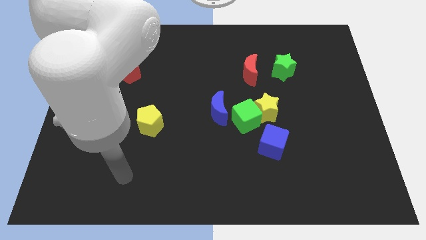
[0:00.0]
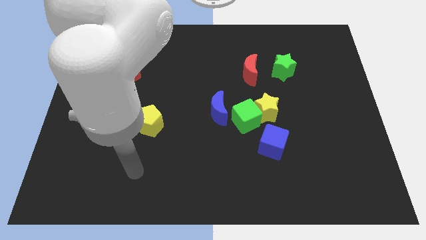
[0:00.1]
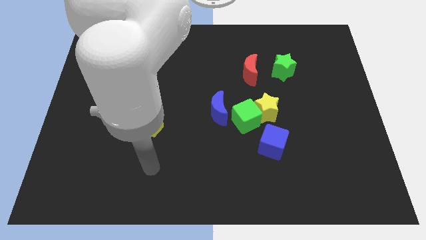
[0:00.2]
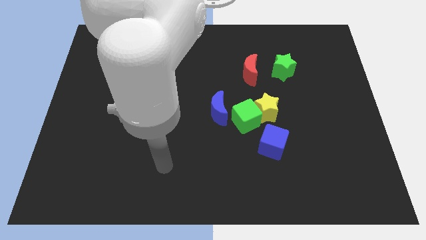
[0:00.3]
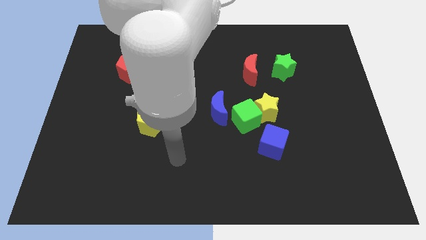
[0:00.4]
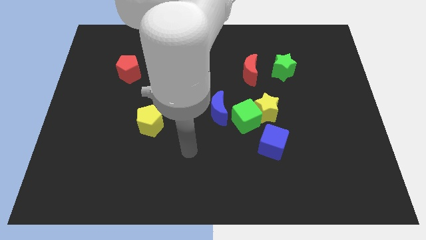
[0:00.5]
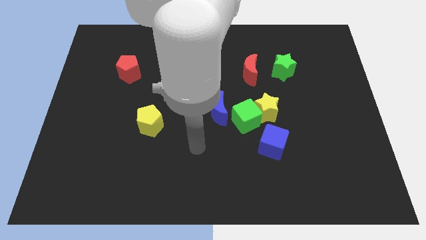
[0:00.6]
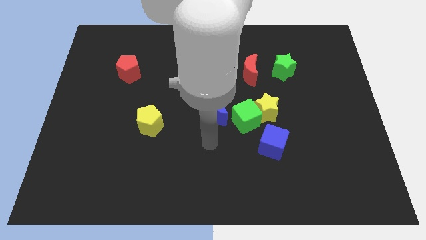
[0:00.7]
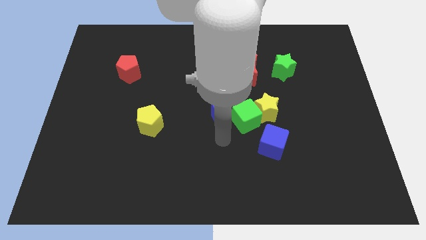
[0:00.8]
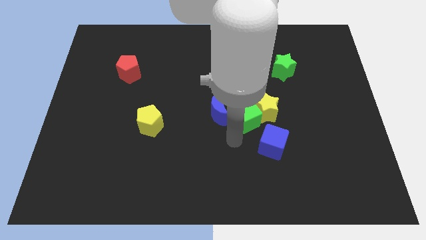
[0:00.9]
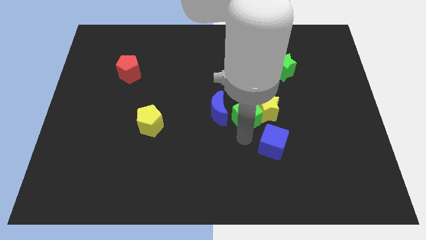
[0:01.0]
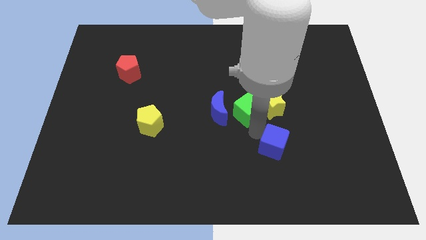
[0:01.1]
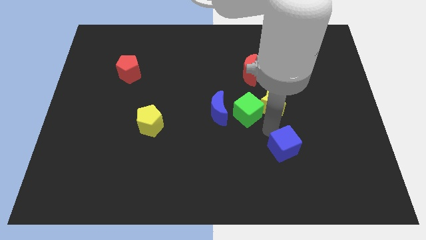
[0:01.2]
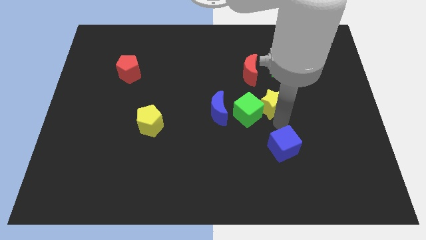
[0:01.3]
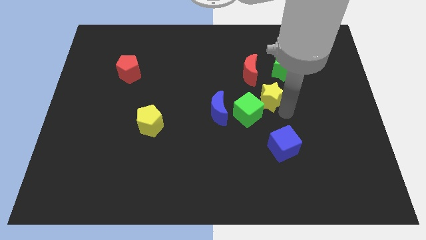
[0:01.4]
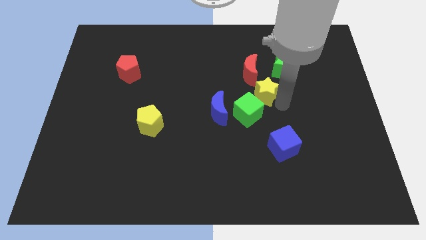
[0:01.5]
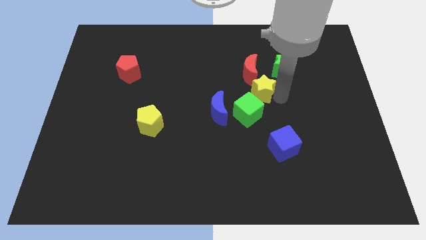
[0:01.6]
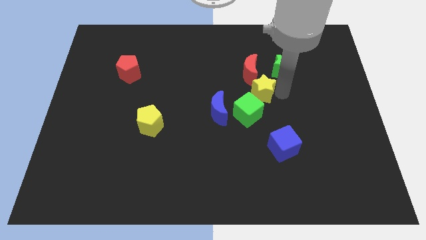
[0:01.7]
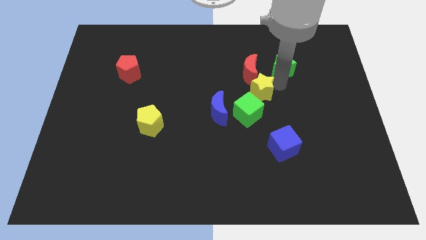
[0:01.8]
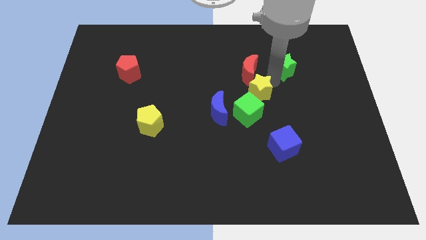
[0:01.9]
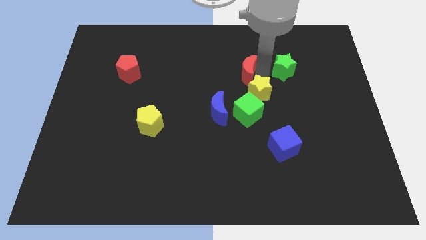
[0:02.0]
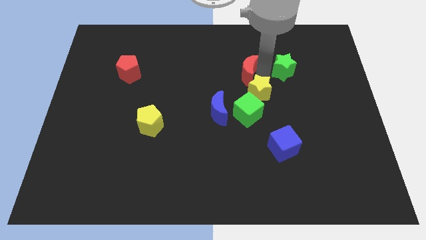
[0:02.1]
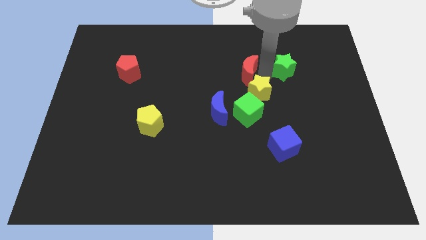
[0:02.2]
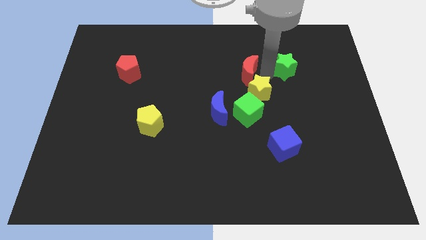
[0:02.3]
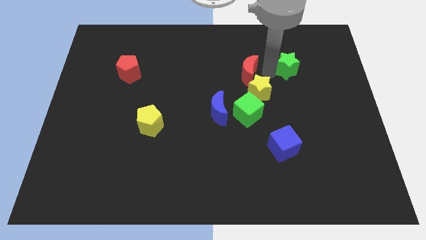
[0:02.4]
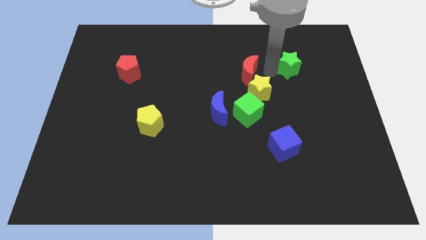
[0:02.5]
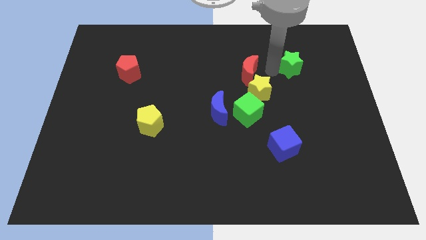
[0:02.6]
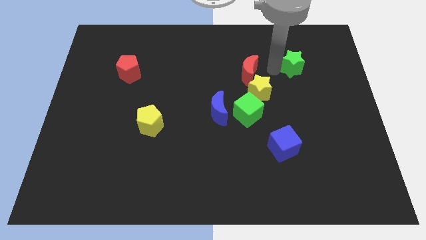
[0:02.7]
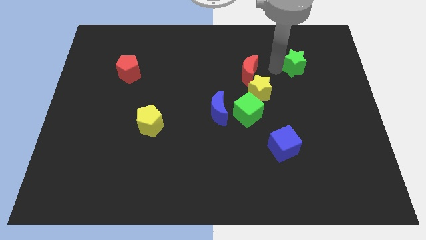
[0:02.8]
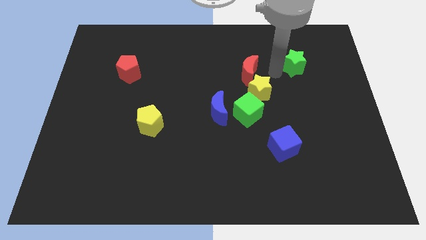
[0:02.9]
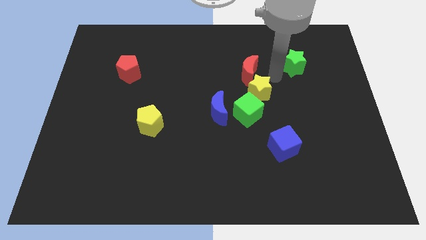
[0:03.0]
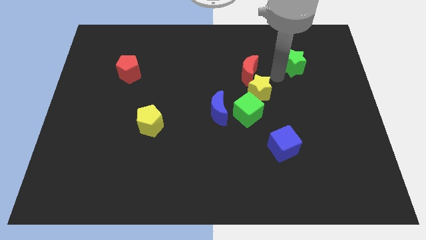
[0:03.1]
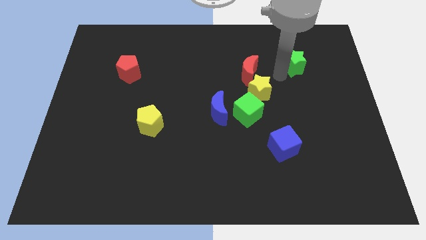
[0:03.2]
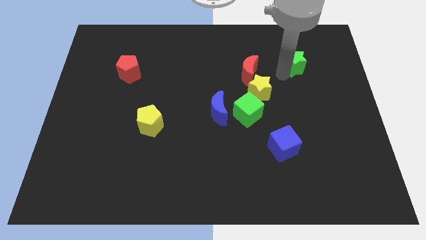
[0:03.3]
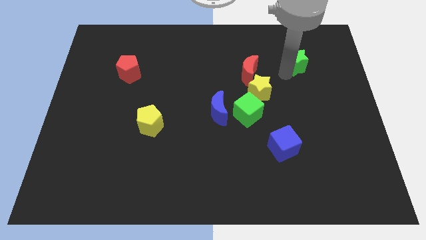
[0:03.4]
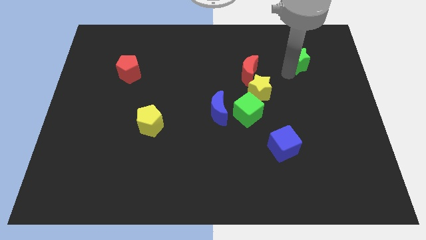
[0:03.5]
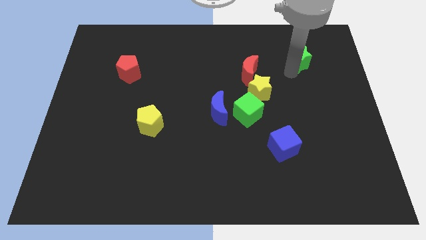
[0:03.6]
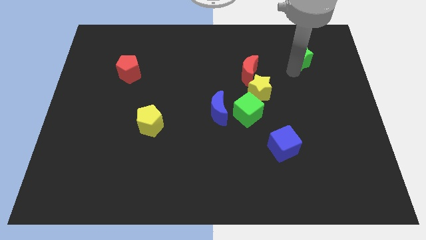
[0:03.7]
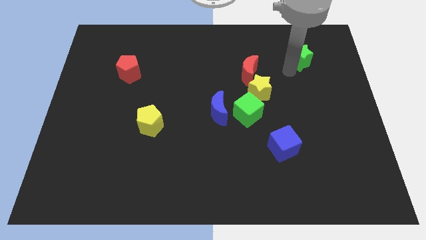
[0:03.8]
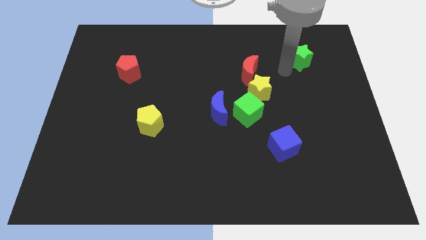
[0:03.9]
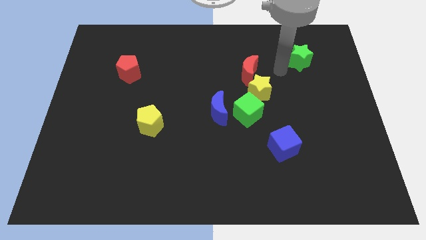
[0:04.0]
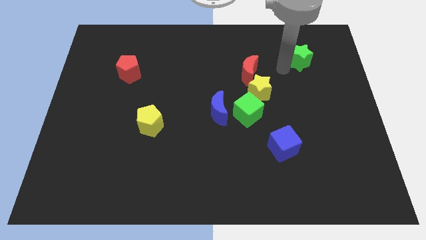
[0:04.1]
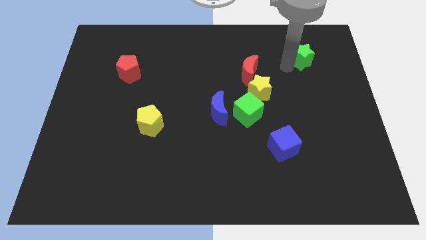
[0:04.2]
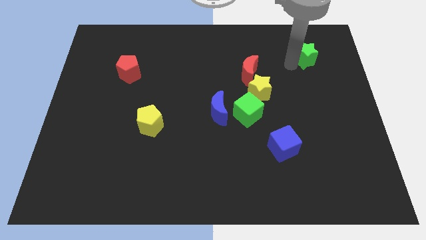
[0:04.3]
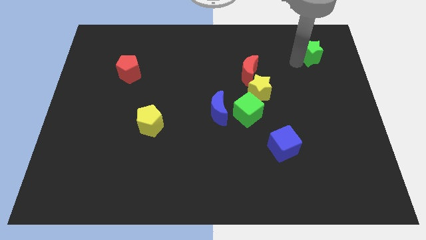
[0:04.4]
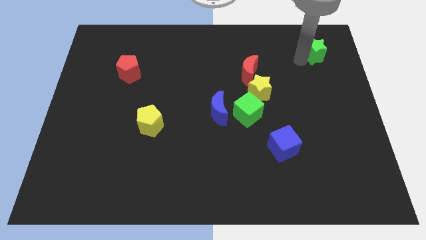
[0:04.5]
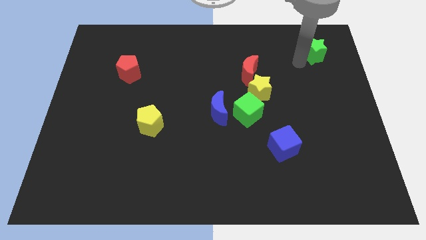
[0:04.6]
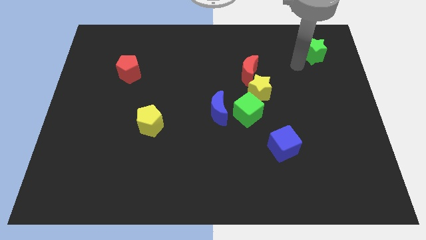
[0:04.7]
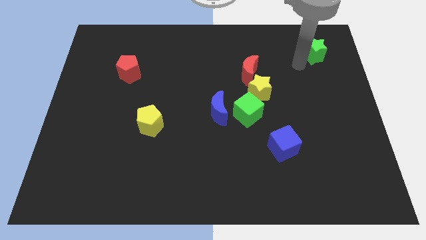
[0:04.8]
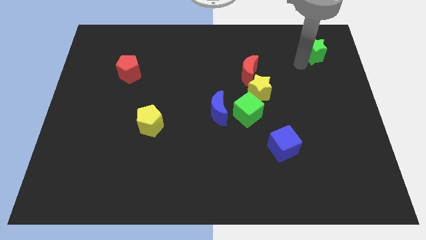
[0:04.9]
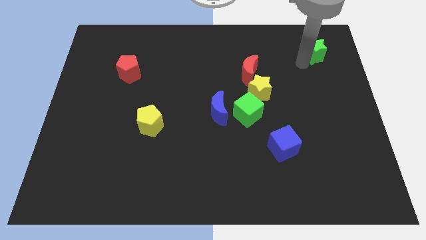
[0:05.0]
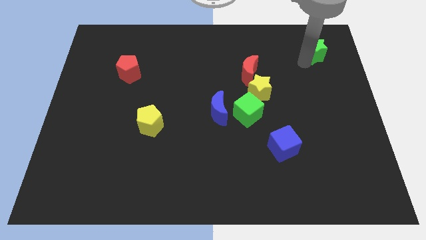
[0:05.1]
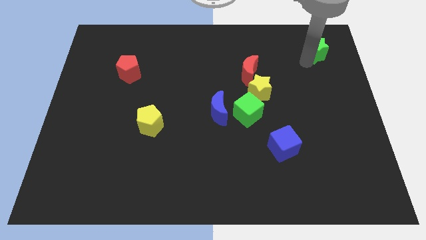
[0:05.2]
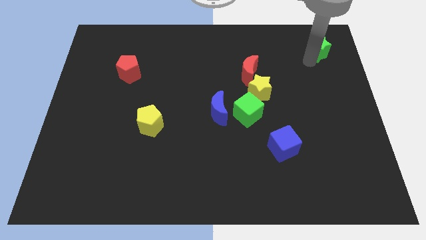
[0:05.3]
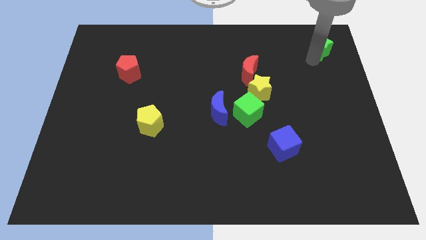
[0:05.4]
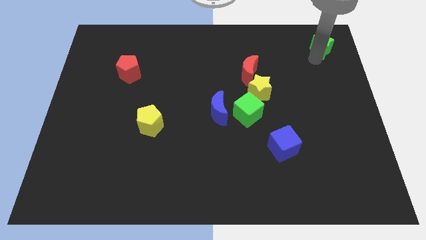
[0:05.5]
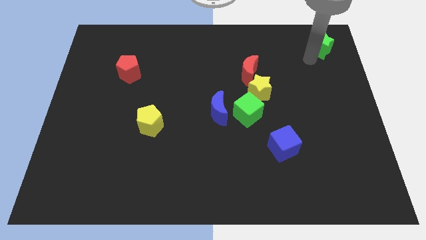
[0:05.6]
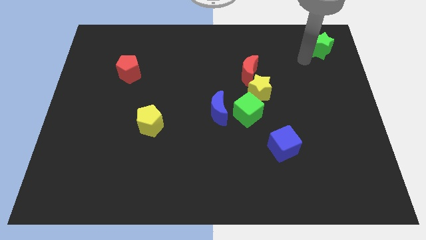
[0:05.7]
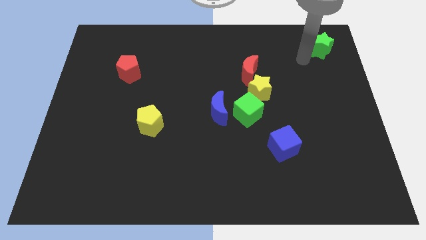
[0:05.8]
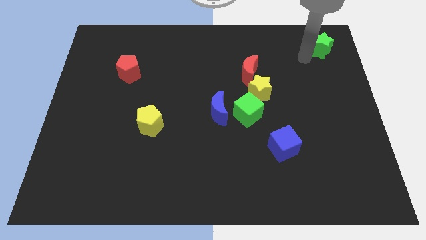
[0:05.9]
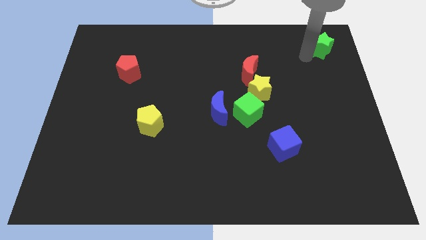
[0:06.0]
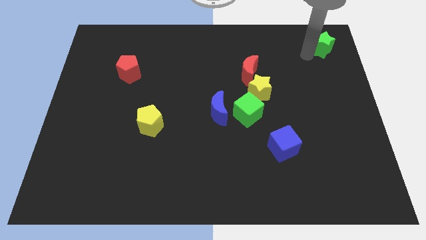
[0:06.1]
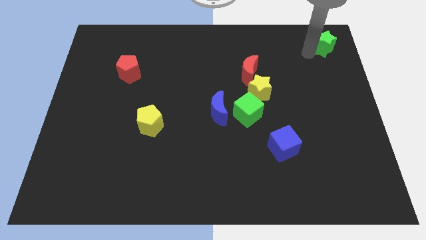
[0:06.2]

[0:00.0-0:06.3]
move the green star to the upper right corner

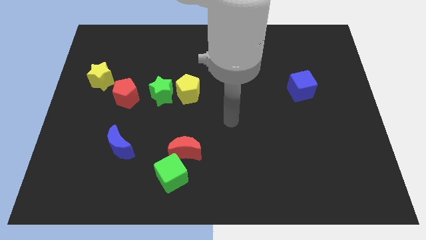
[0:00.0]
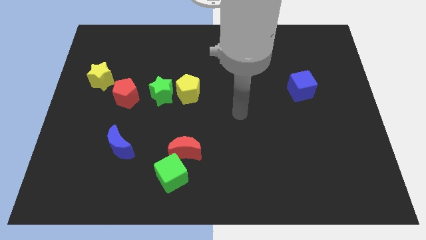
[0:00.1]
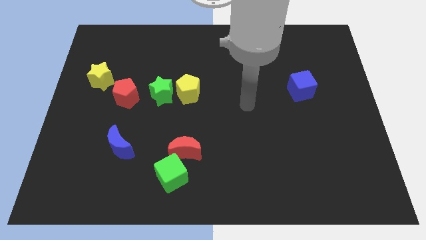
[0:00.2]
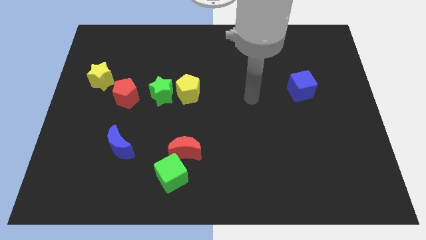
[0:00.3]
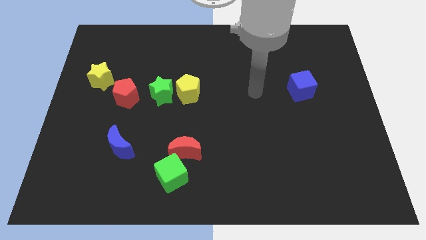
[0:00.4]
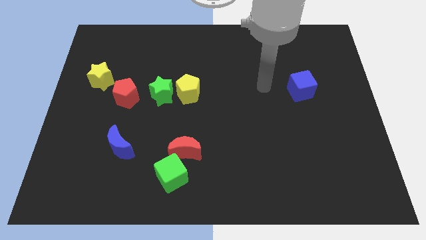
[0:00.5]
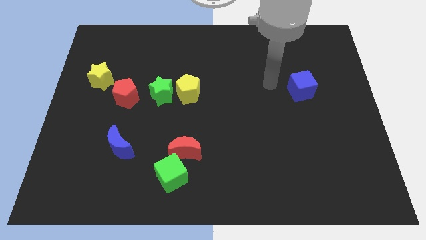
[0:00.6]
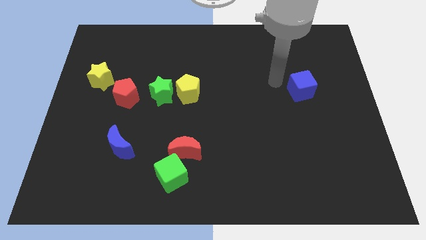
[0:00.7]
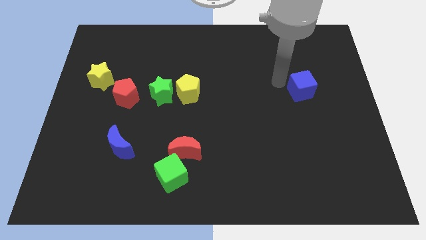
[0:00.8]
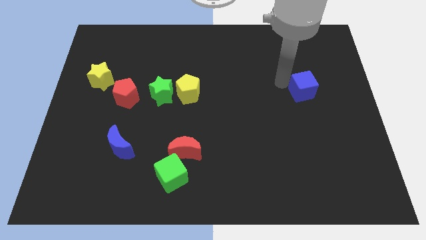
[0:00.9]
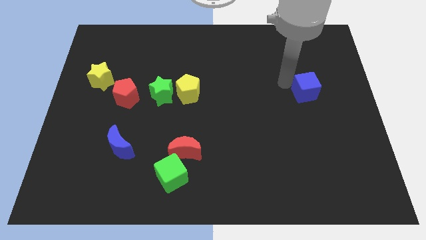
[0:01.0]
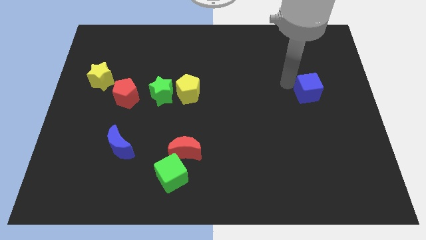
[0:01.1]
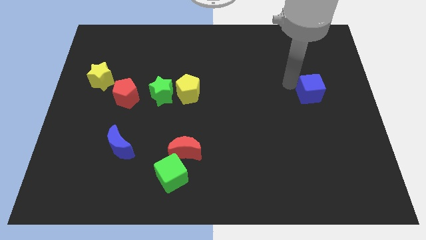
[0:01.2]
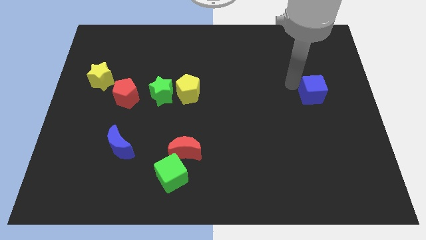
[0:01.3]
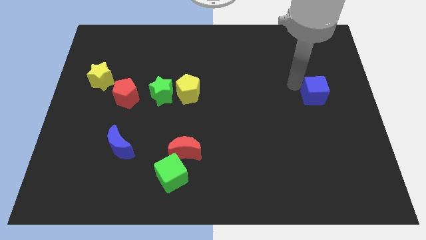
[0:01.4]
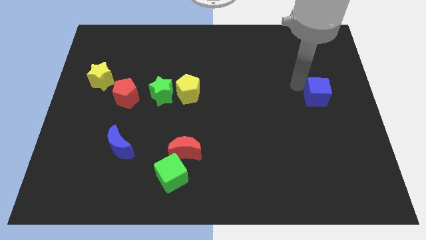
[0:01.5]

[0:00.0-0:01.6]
put the blue cube to the right side
